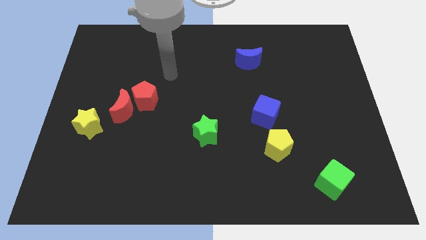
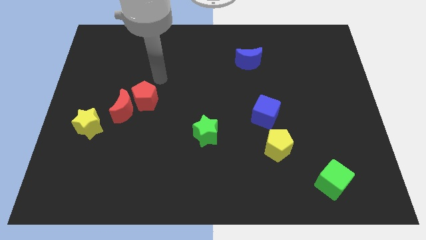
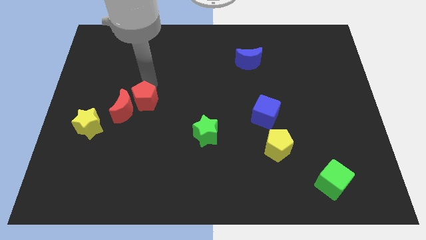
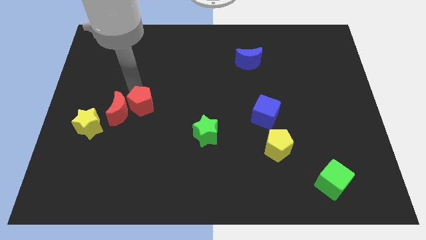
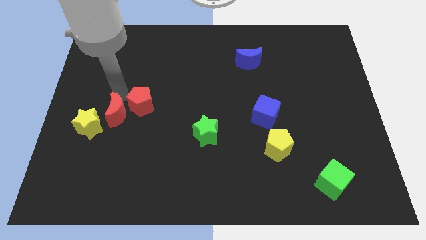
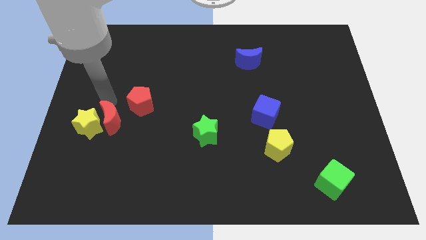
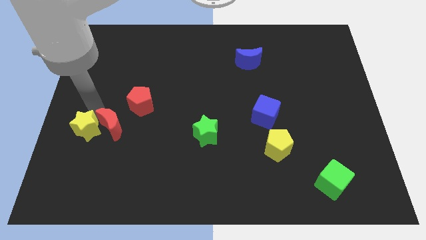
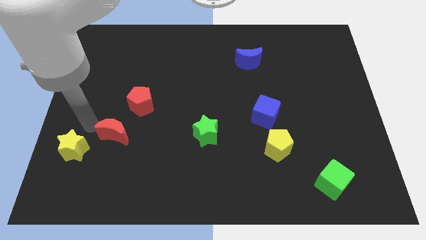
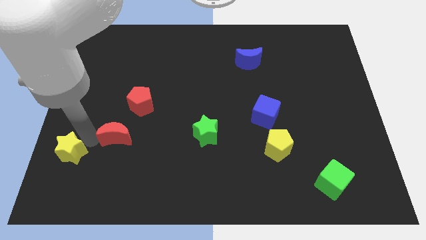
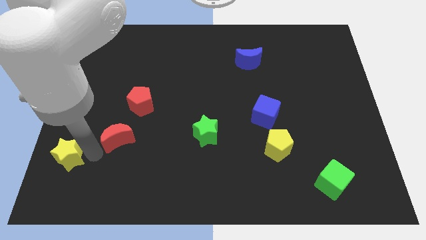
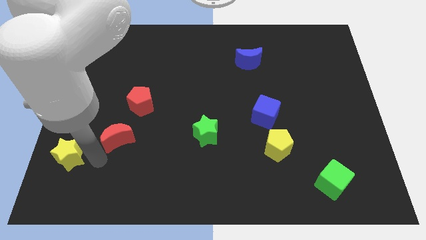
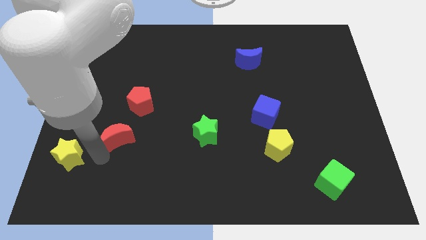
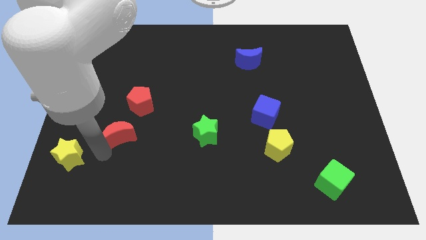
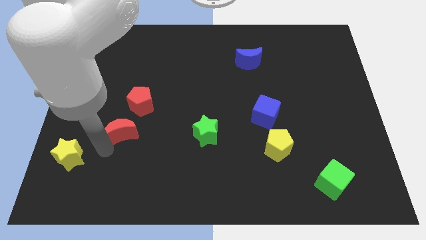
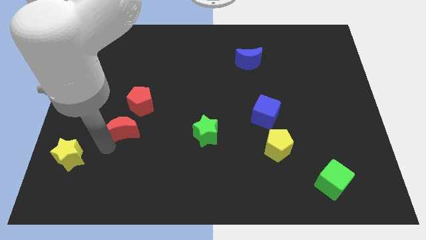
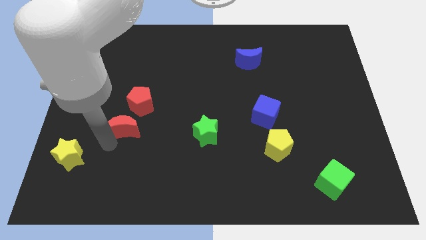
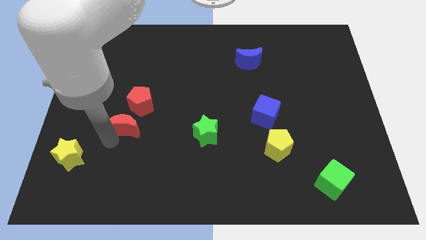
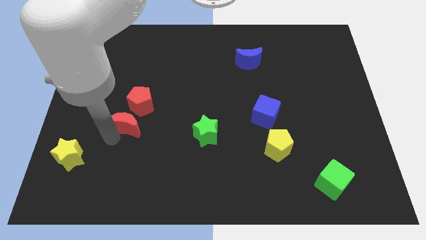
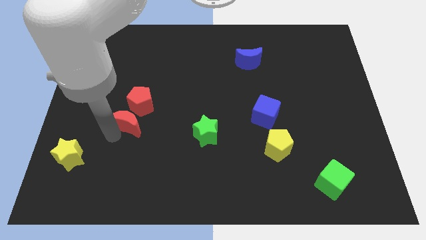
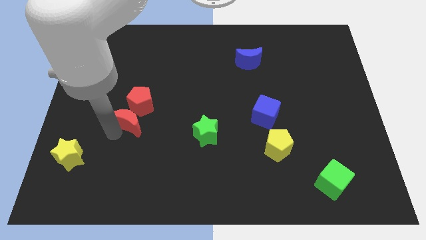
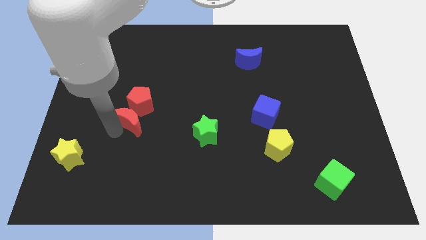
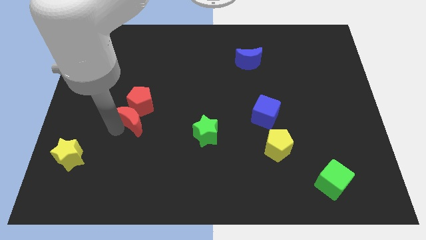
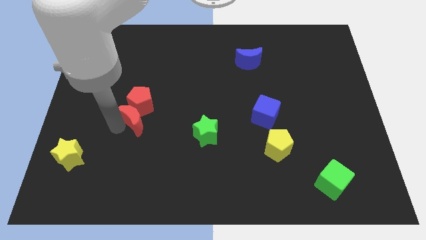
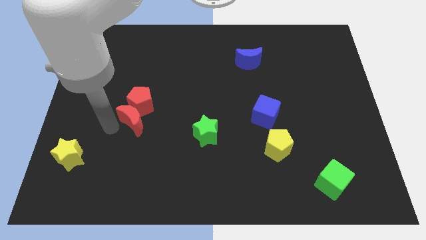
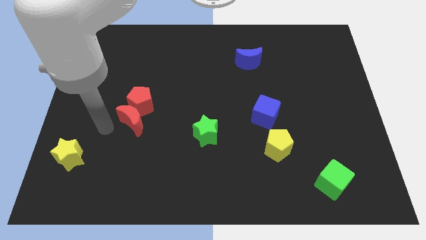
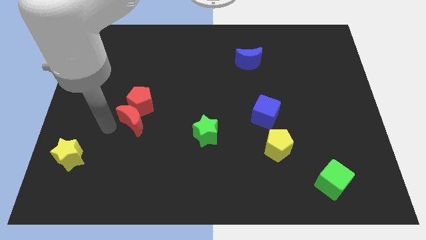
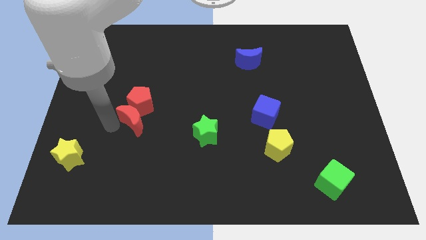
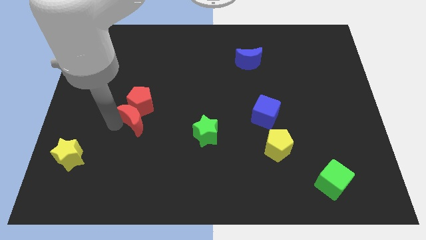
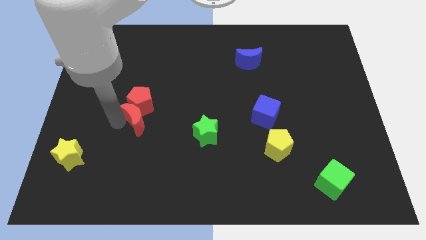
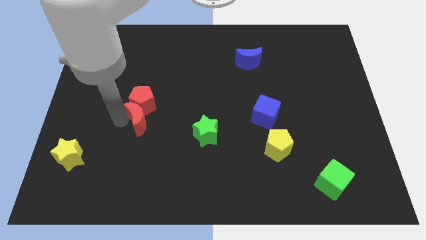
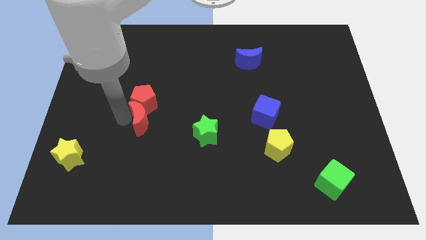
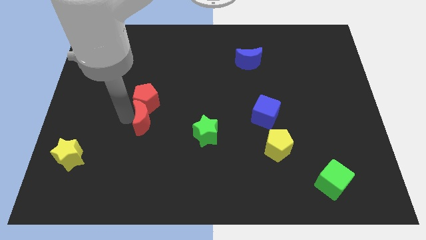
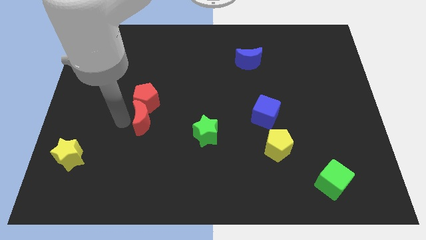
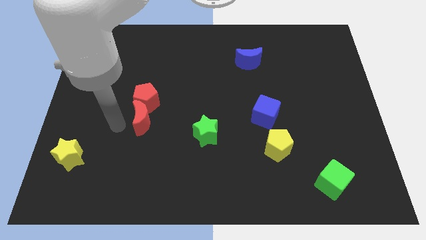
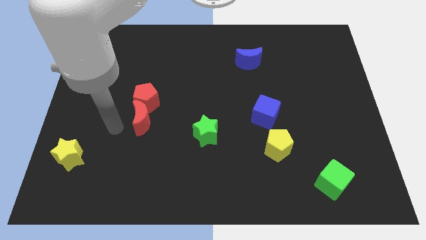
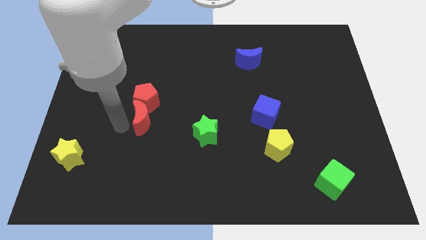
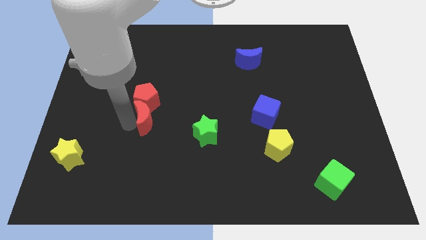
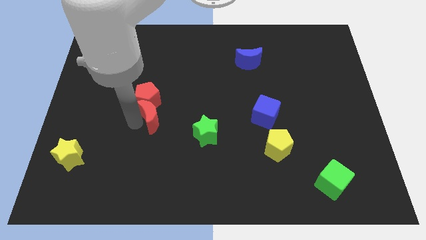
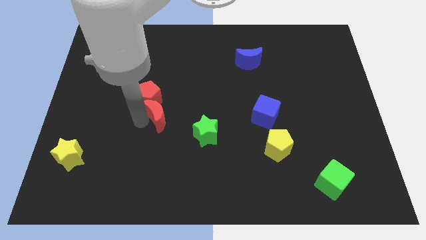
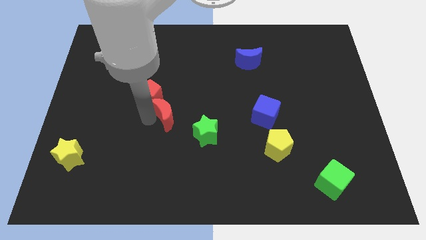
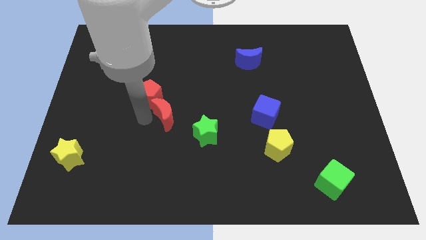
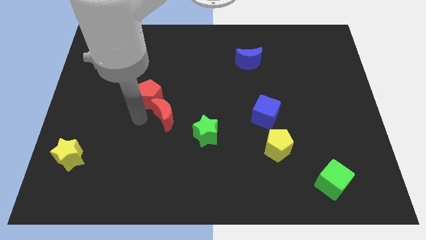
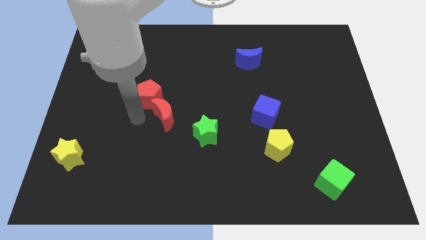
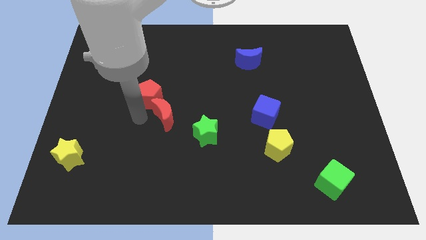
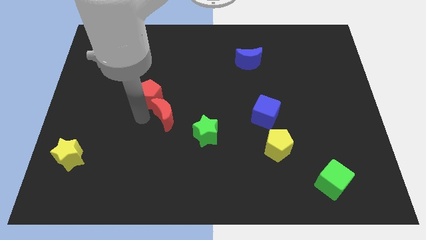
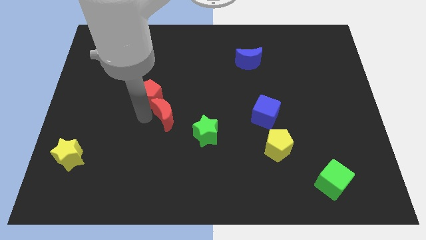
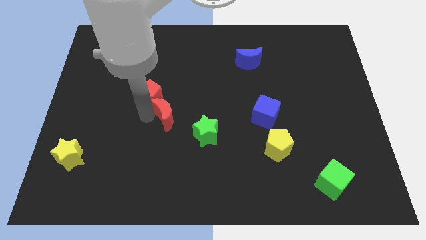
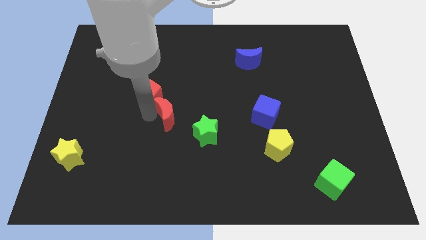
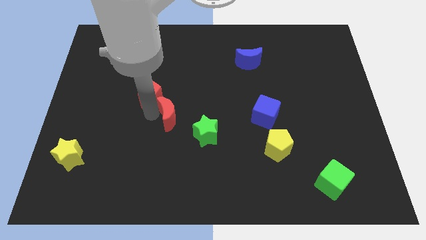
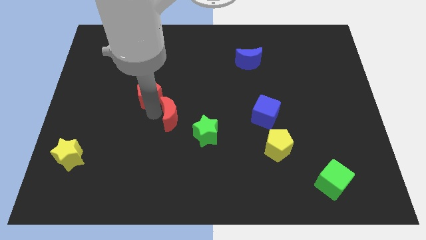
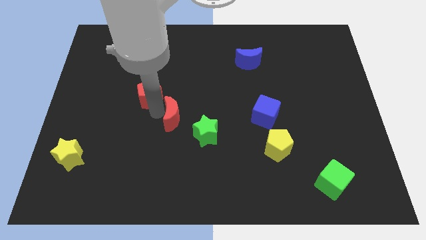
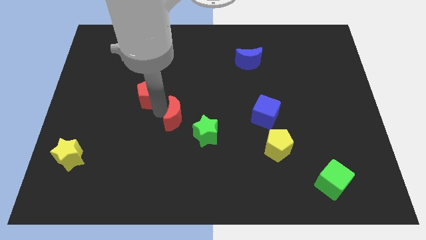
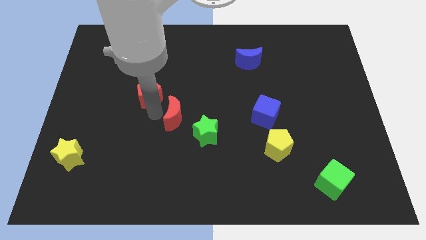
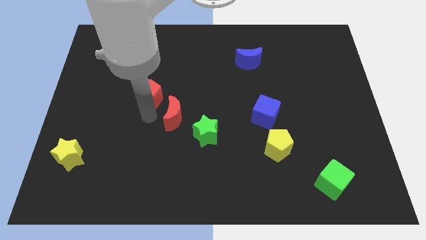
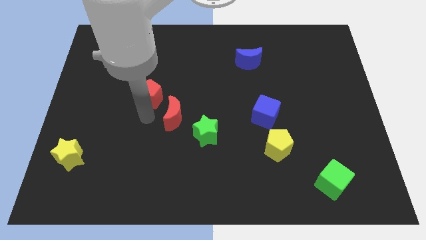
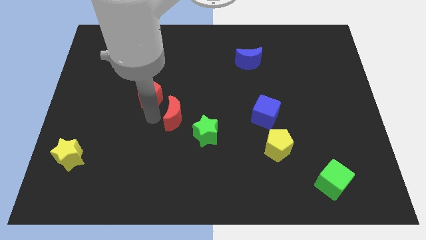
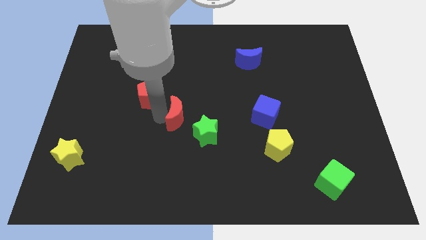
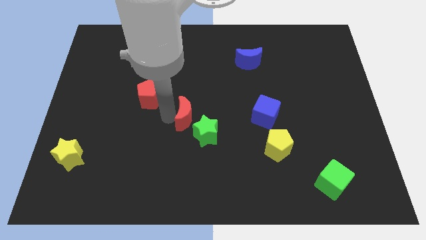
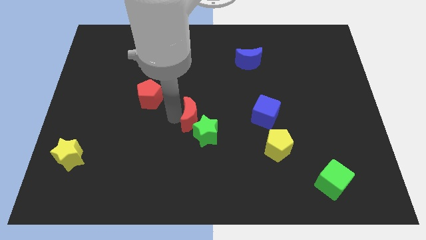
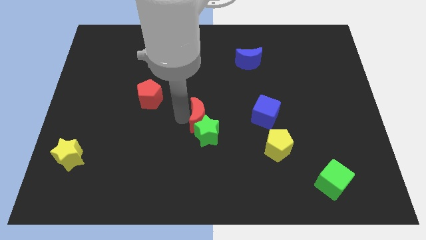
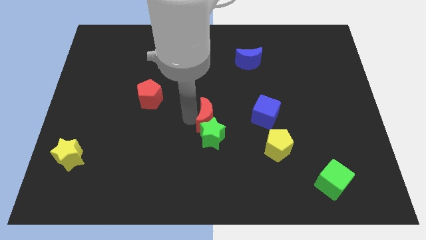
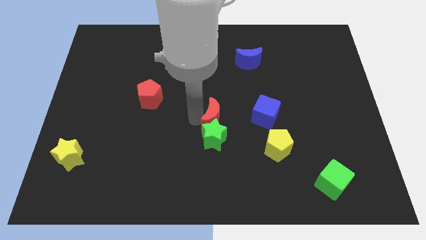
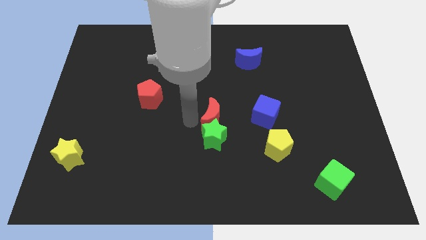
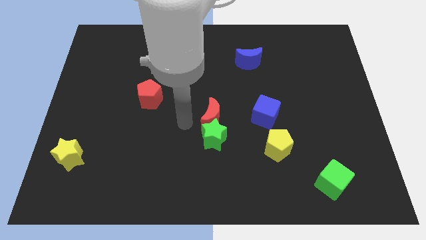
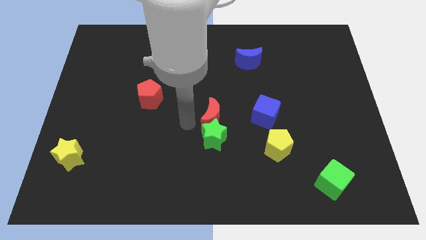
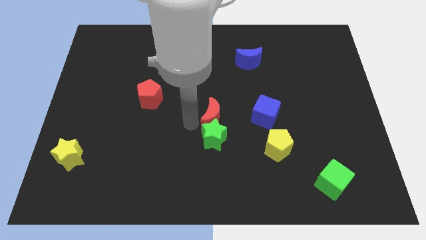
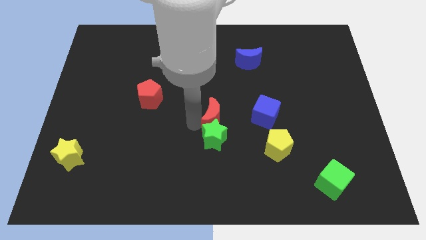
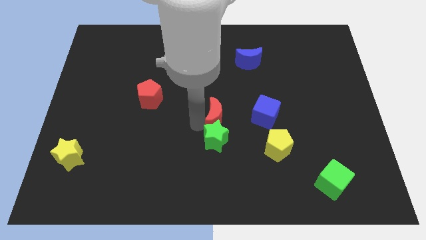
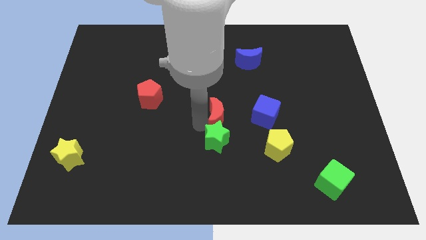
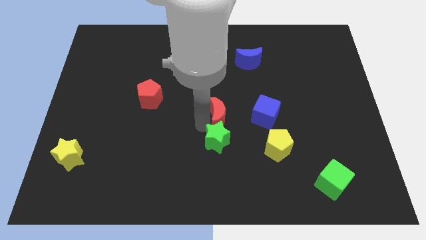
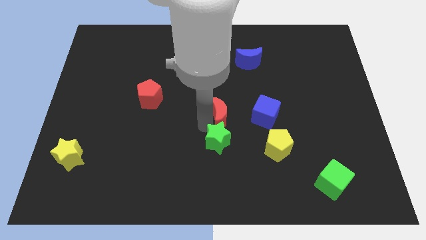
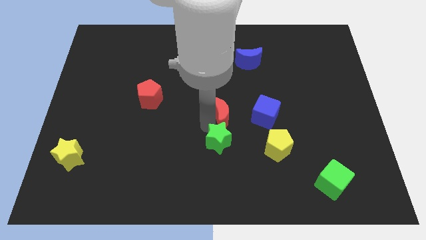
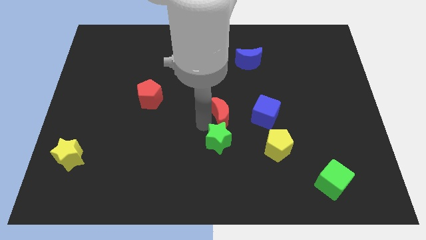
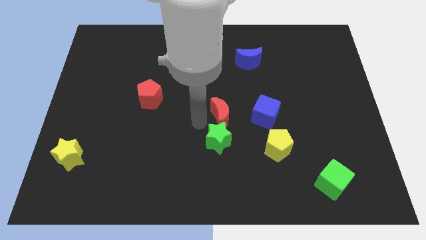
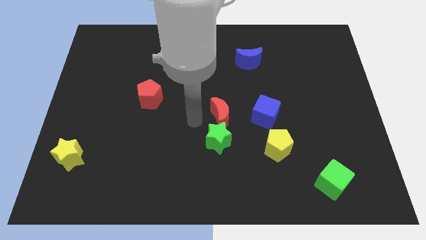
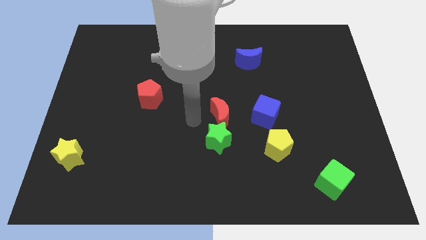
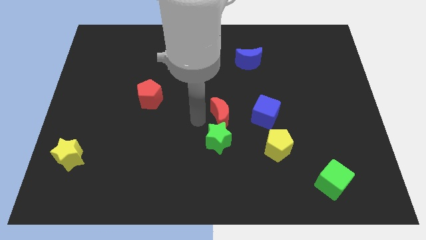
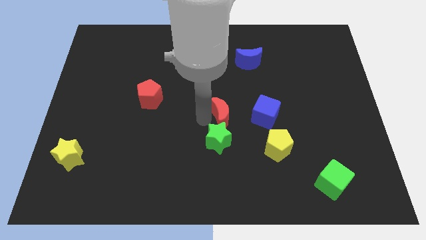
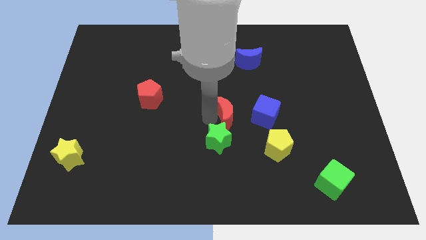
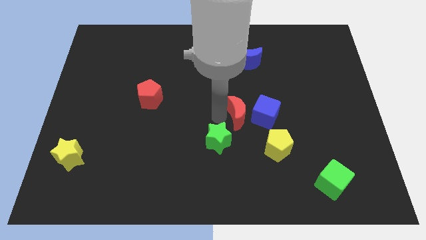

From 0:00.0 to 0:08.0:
push the red moon towards the blue cube
